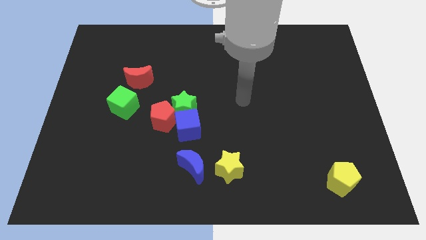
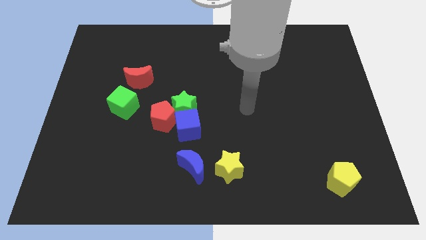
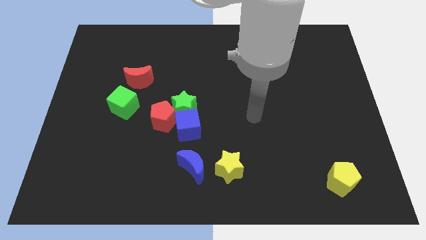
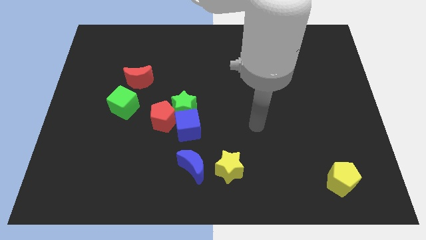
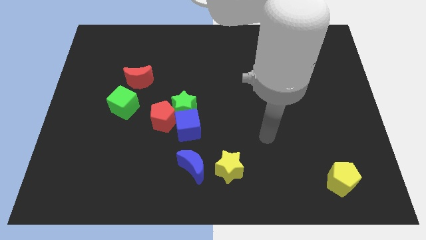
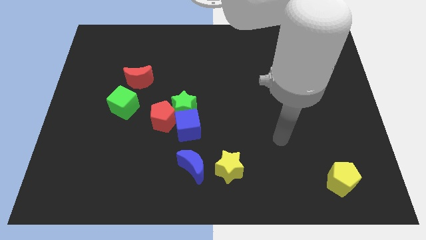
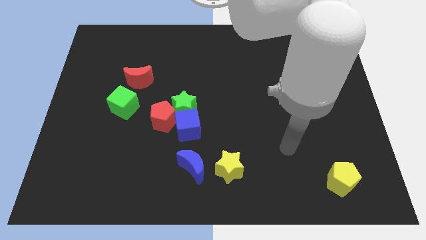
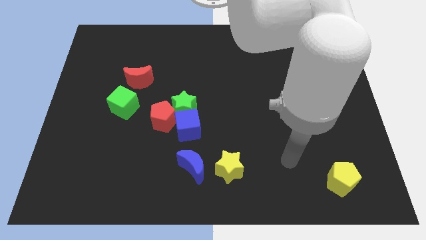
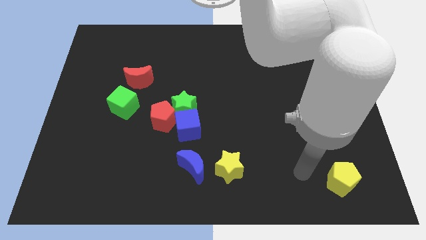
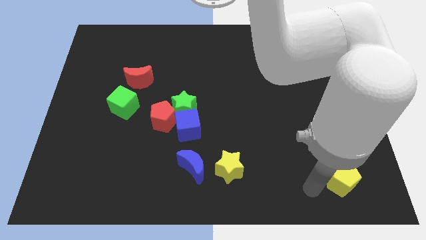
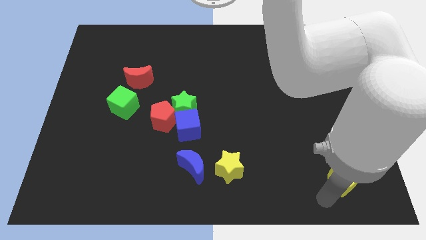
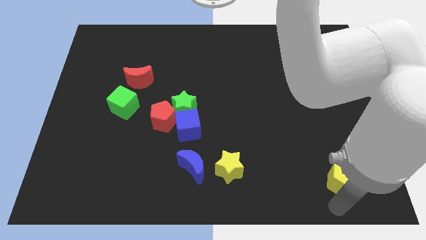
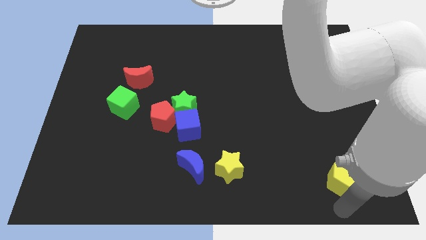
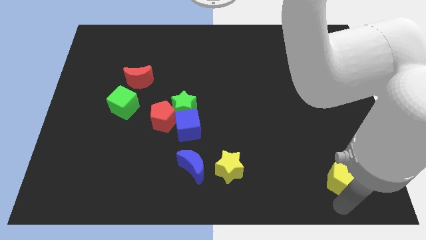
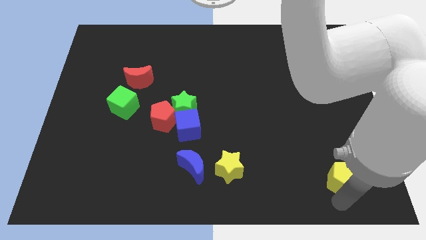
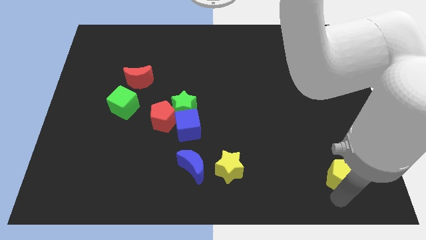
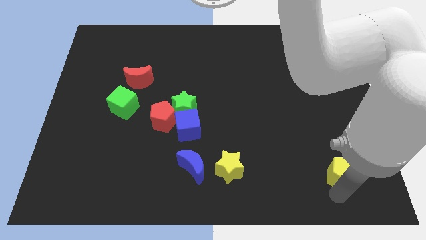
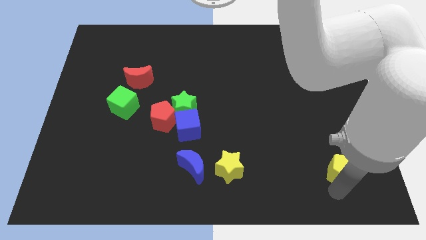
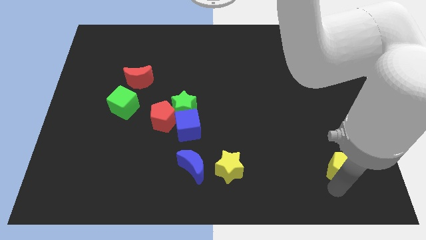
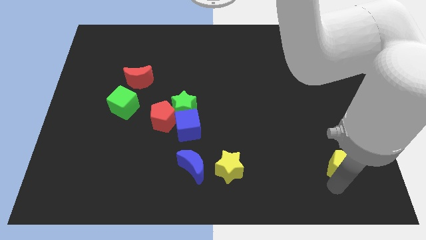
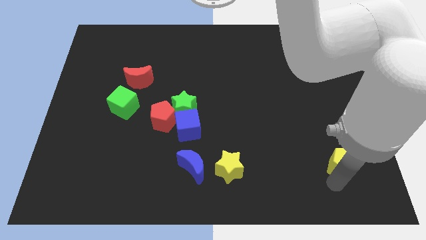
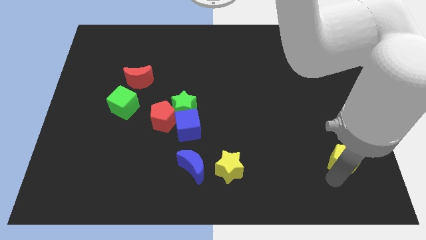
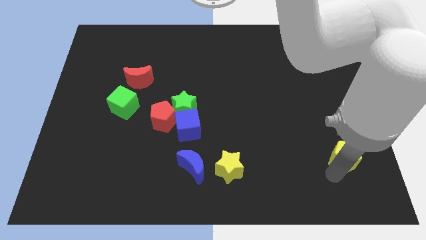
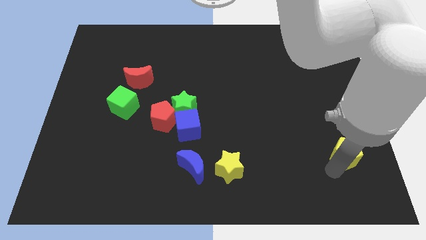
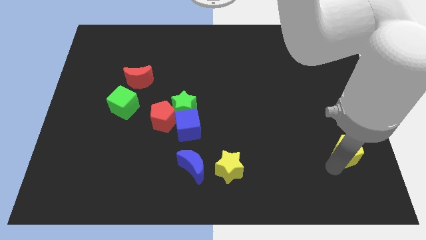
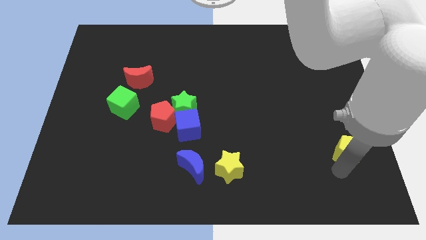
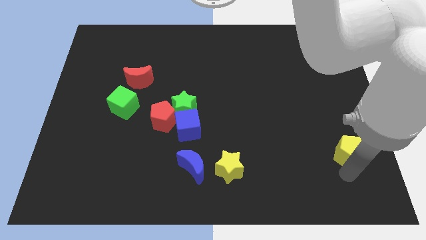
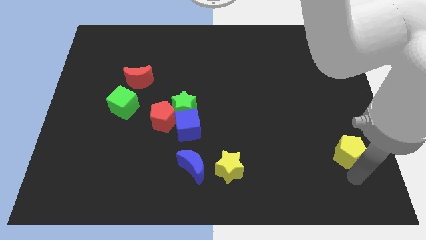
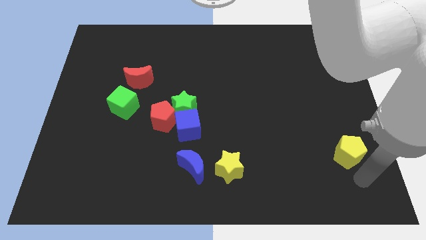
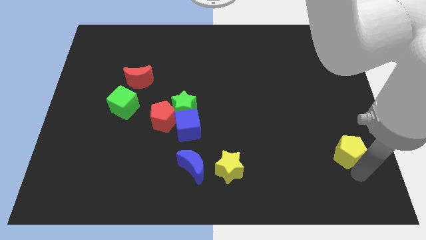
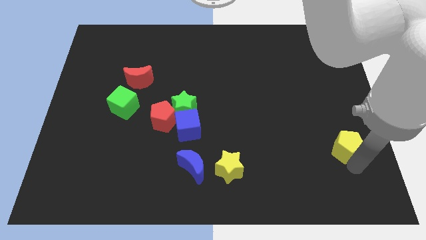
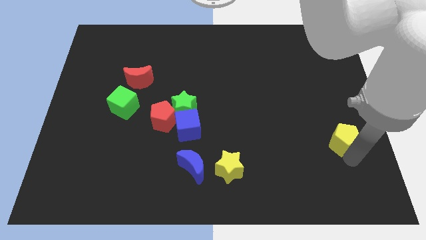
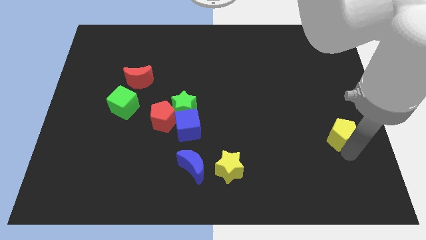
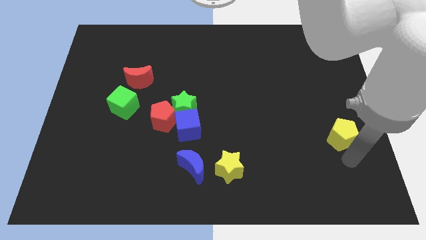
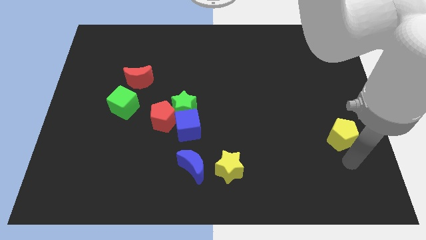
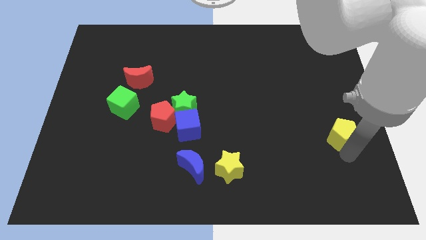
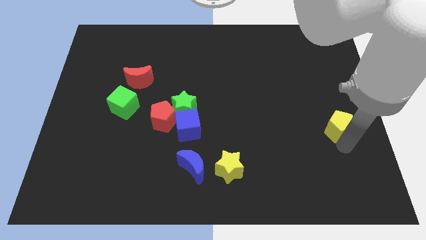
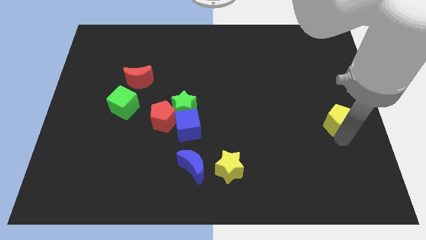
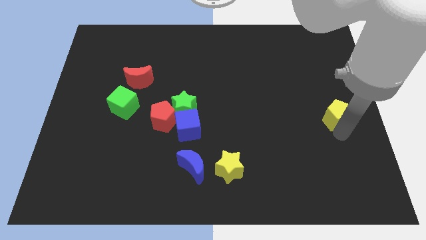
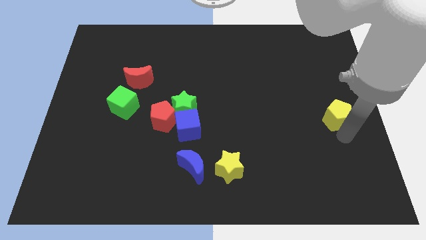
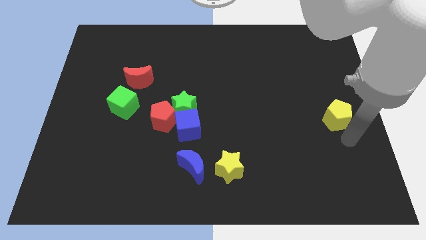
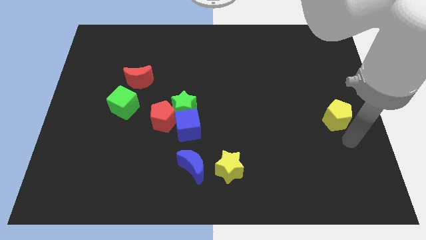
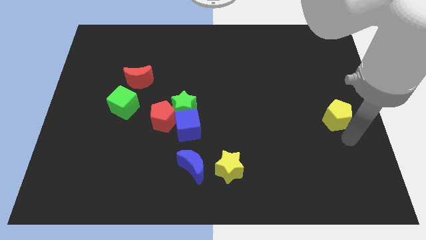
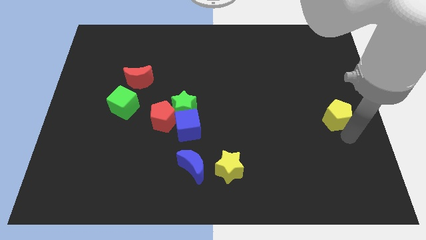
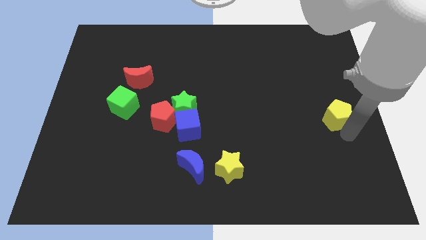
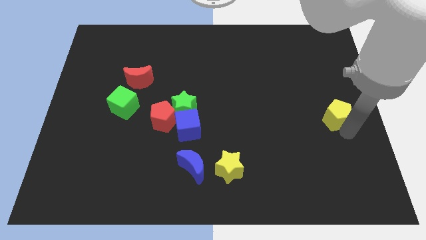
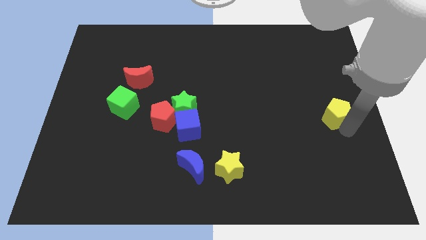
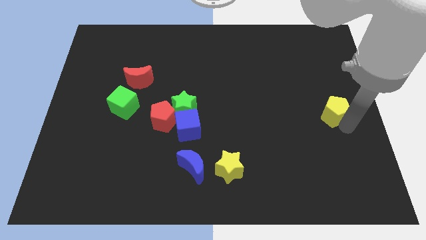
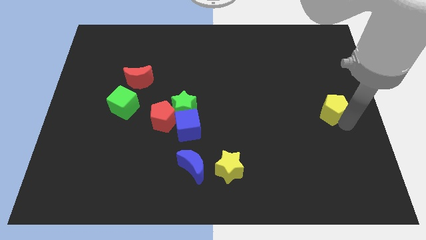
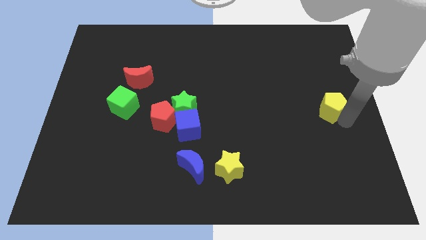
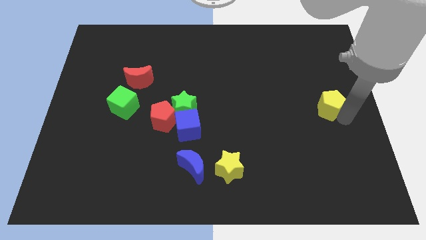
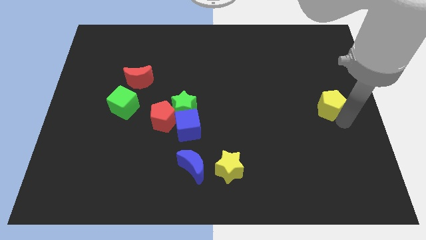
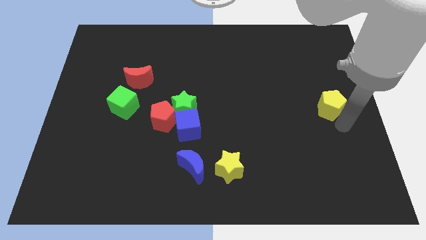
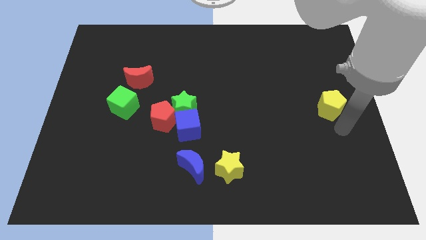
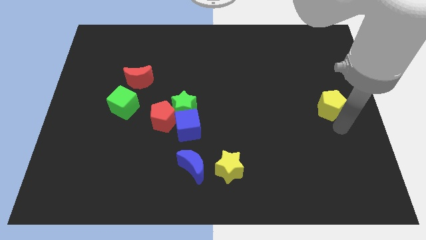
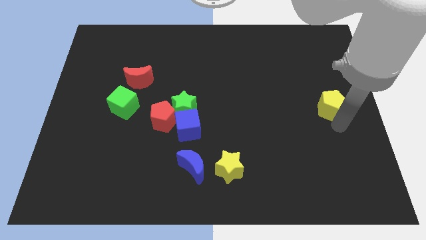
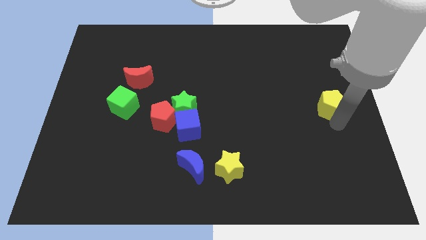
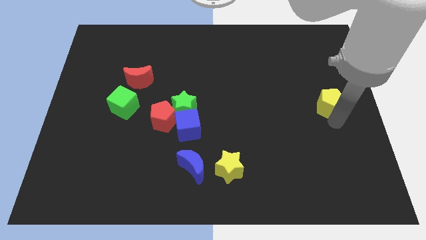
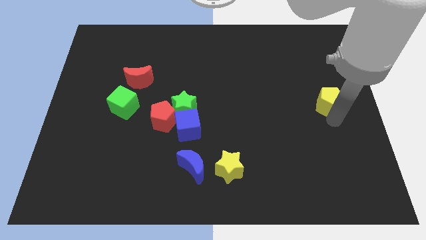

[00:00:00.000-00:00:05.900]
slide the yellow pentagon upwards

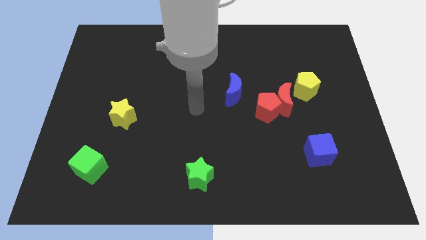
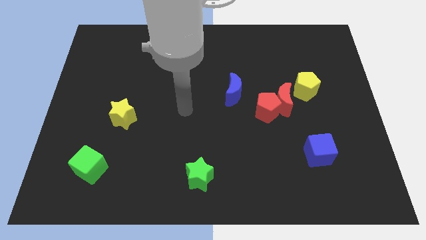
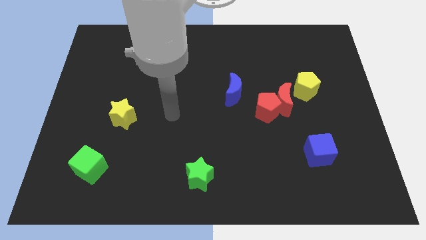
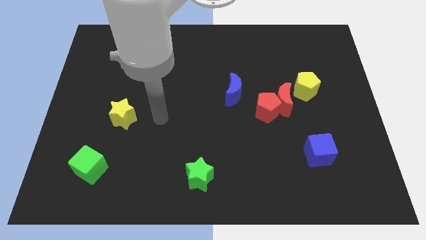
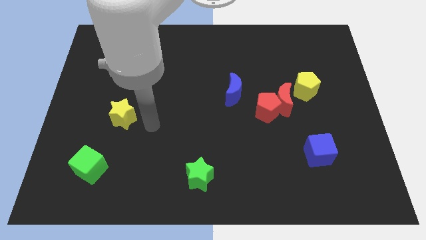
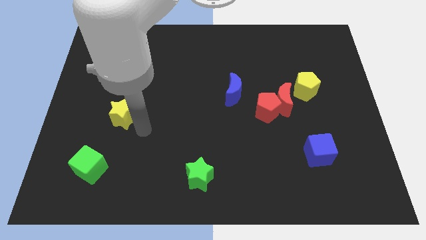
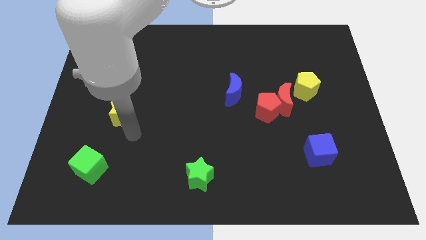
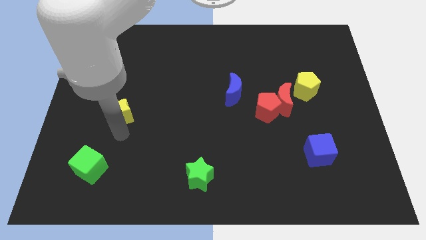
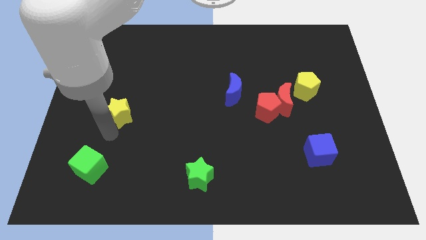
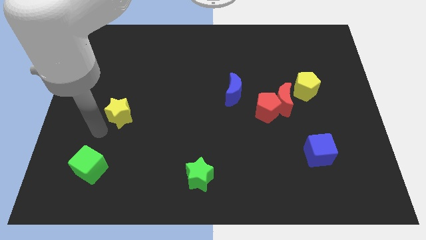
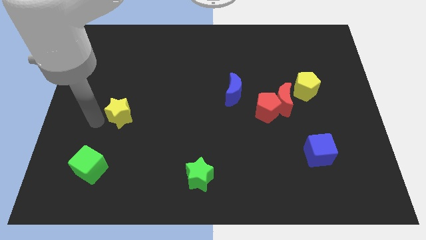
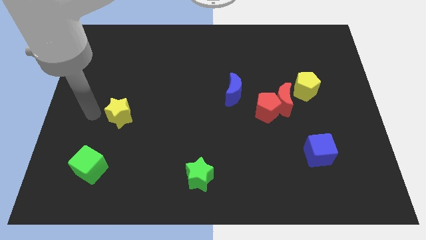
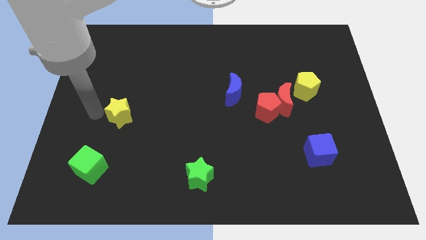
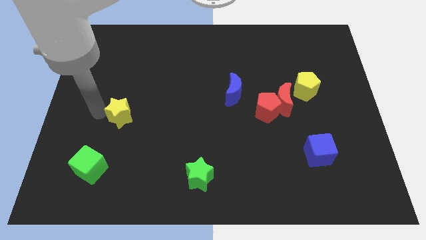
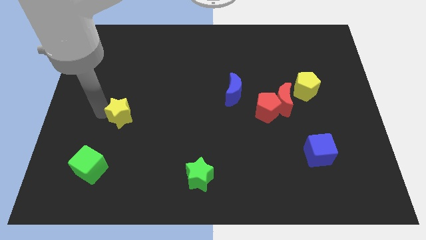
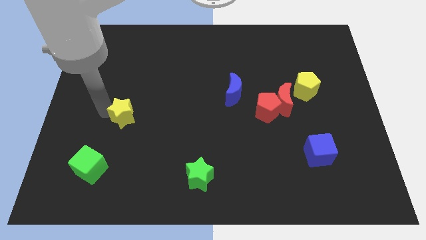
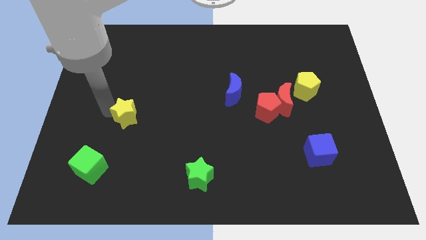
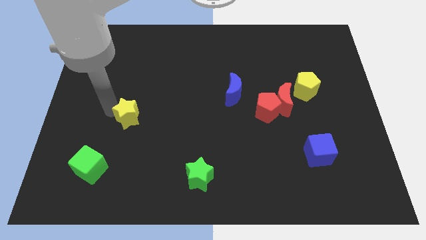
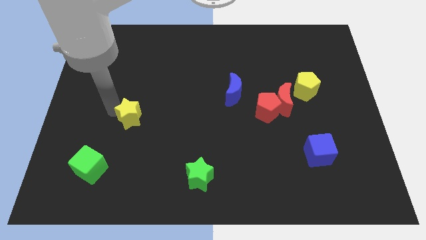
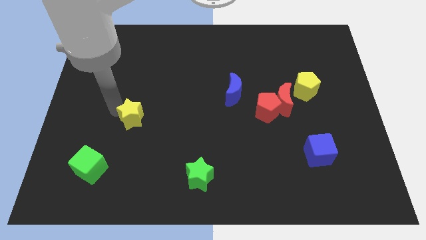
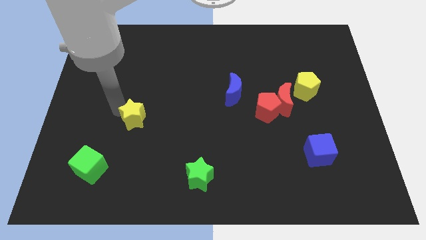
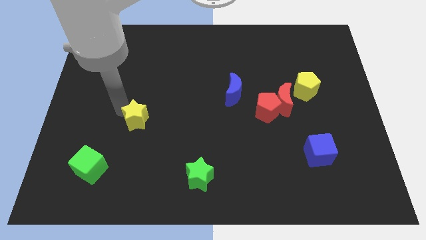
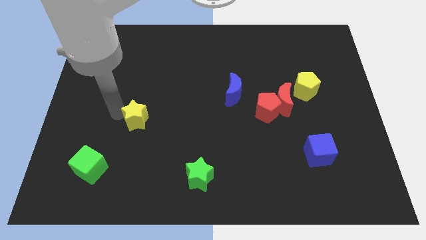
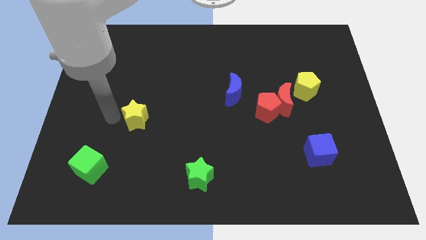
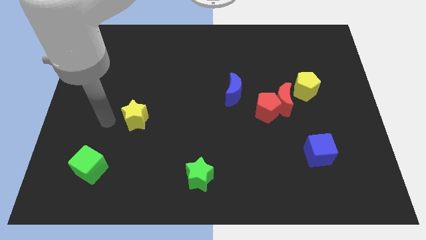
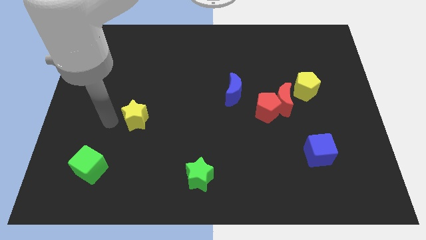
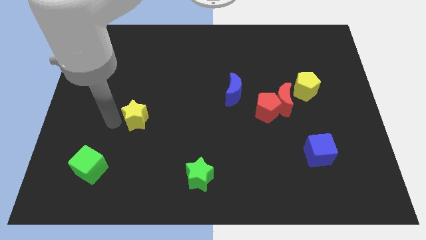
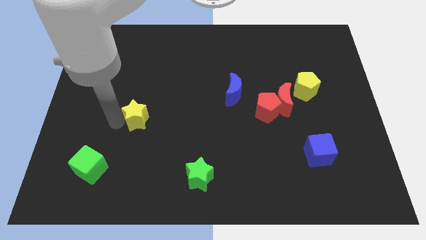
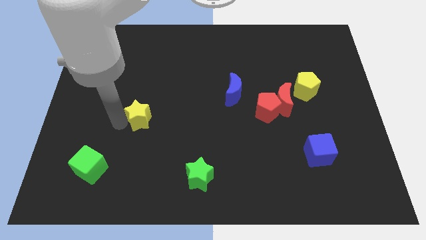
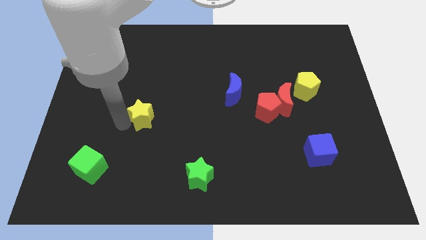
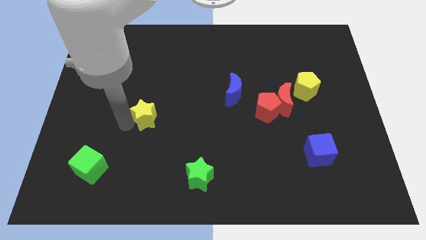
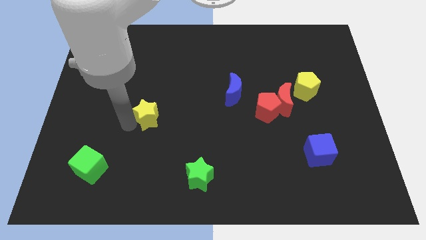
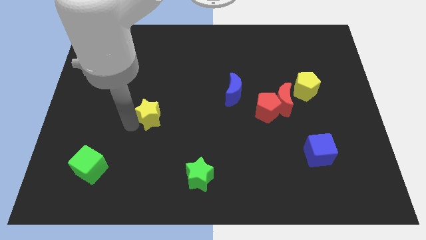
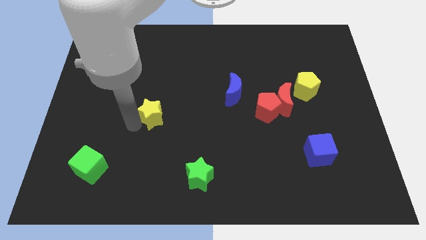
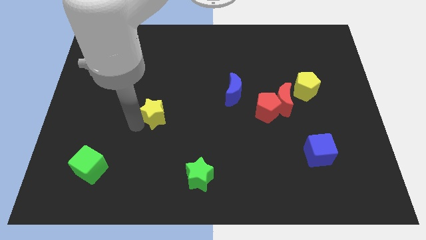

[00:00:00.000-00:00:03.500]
slightly slide the yellow star to the right
